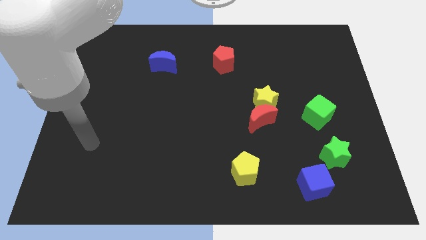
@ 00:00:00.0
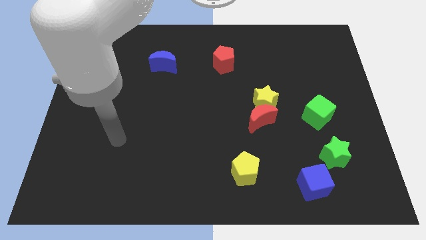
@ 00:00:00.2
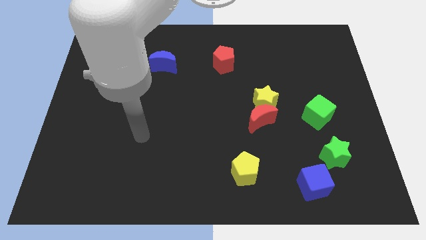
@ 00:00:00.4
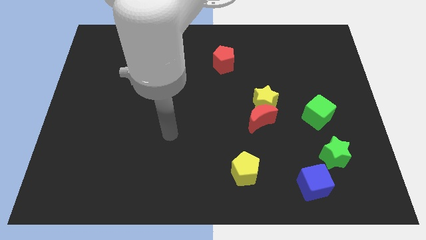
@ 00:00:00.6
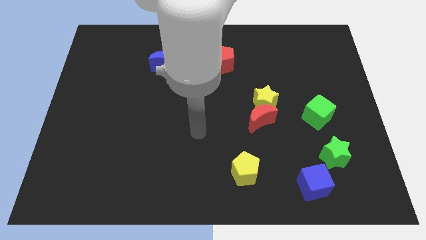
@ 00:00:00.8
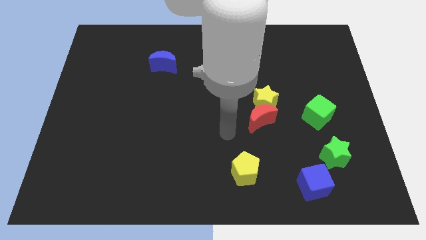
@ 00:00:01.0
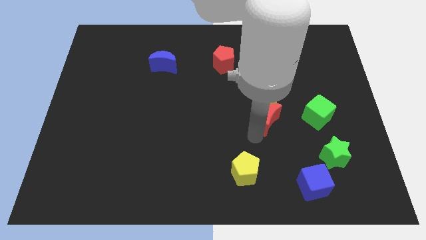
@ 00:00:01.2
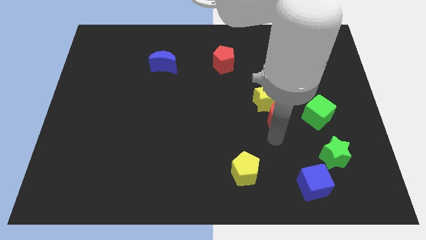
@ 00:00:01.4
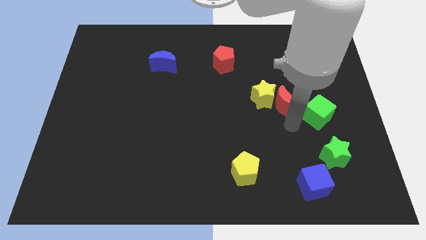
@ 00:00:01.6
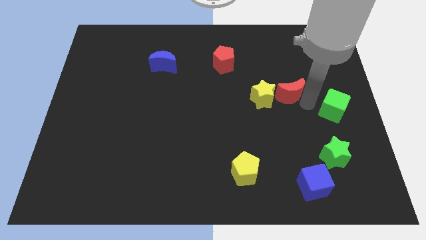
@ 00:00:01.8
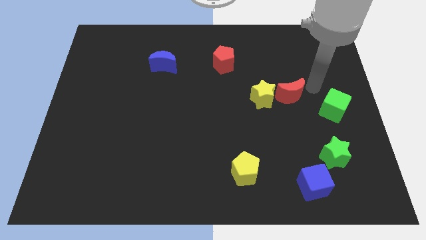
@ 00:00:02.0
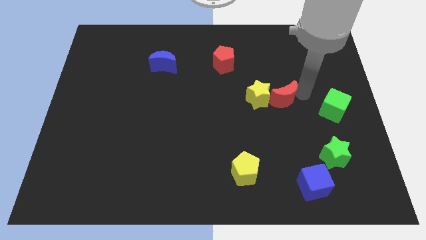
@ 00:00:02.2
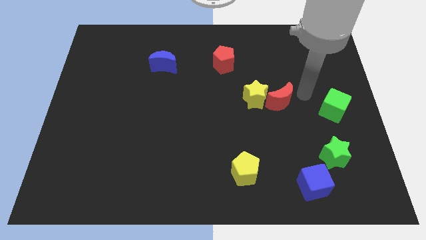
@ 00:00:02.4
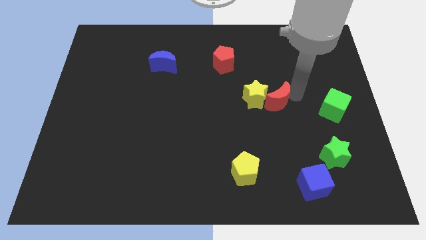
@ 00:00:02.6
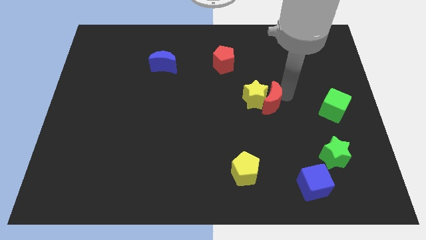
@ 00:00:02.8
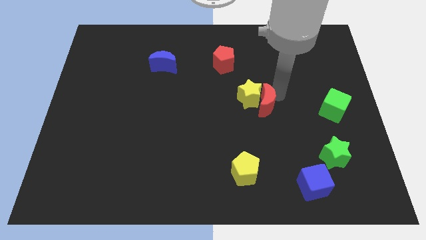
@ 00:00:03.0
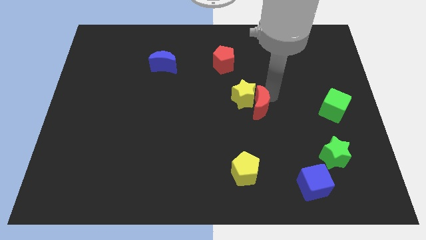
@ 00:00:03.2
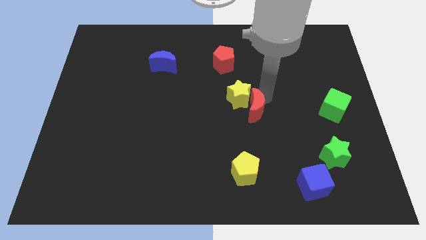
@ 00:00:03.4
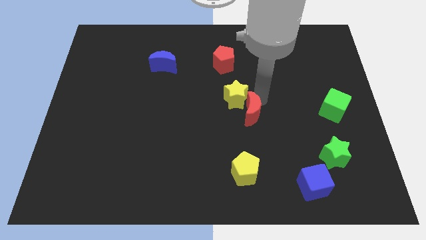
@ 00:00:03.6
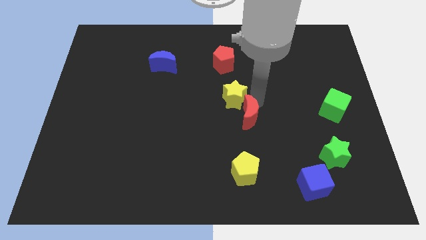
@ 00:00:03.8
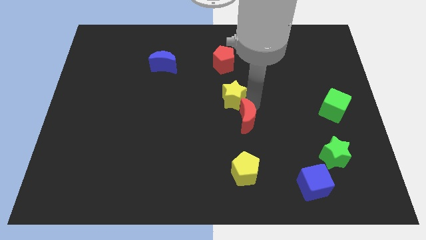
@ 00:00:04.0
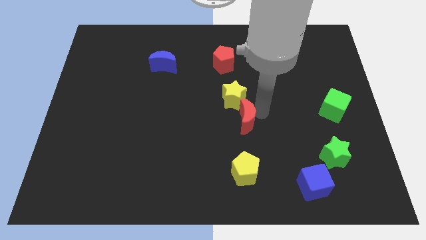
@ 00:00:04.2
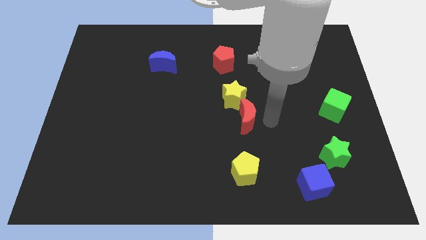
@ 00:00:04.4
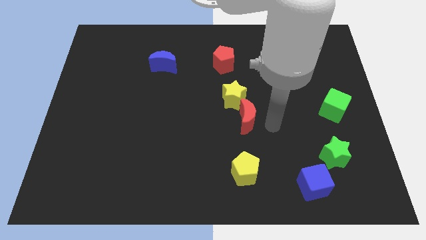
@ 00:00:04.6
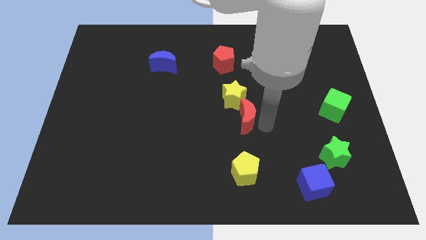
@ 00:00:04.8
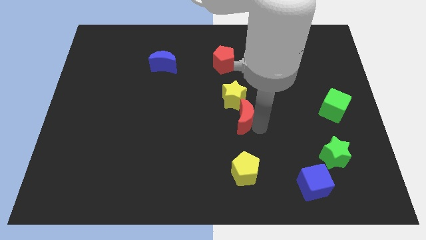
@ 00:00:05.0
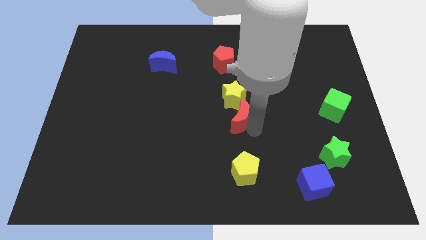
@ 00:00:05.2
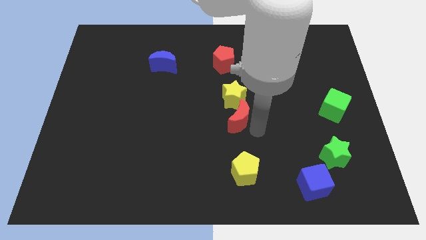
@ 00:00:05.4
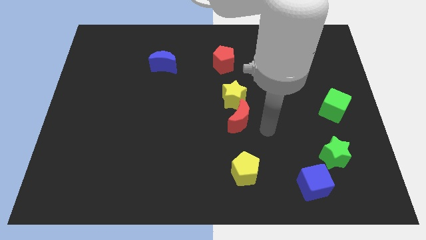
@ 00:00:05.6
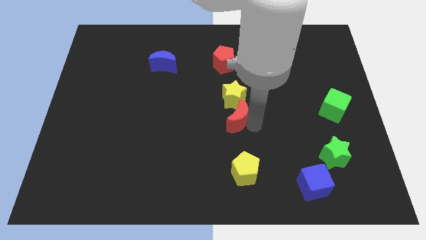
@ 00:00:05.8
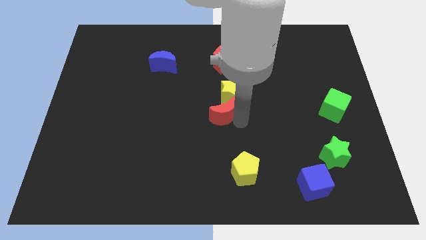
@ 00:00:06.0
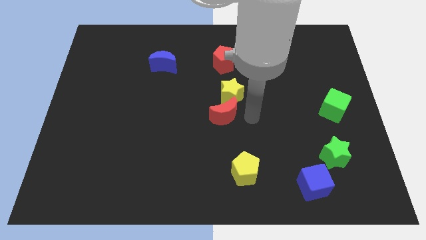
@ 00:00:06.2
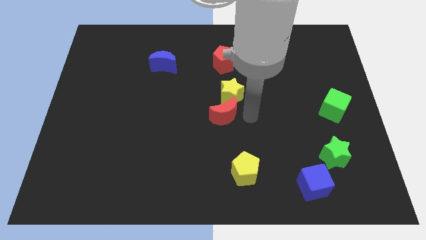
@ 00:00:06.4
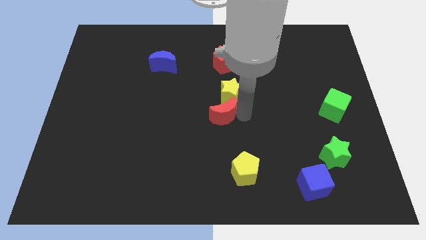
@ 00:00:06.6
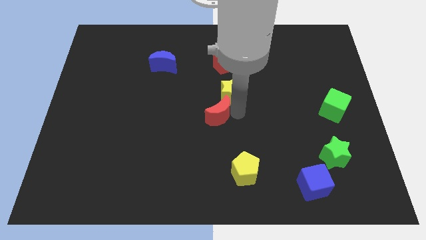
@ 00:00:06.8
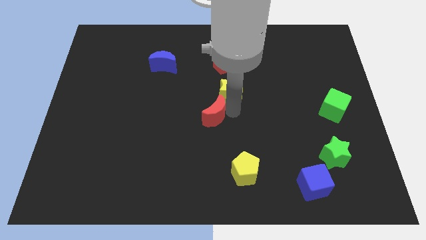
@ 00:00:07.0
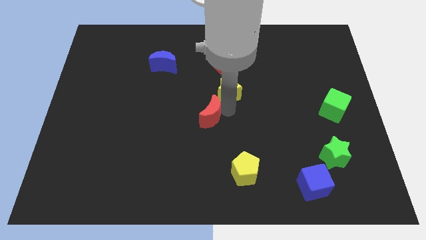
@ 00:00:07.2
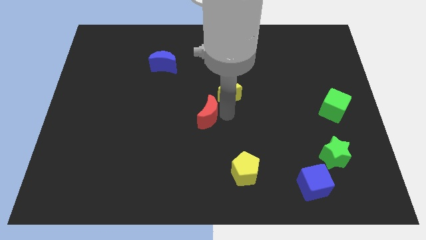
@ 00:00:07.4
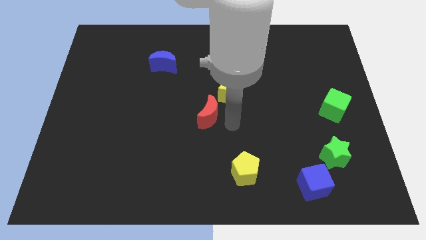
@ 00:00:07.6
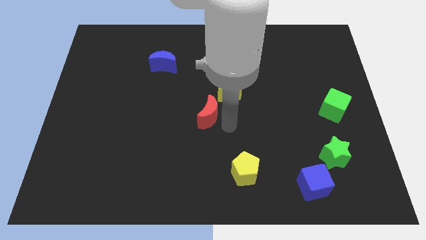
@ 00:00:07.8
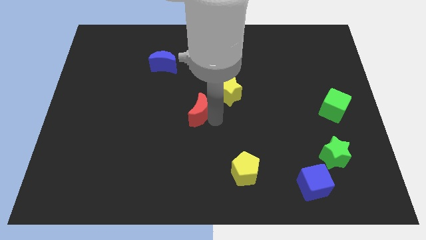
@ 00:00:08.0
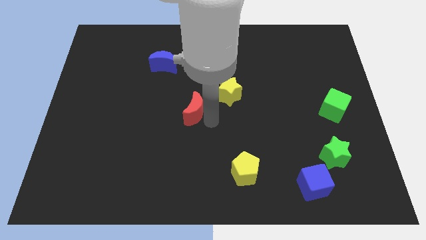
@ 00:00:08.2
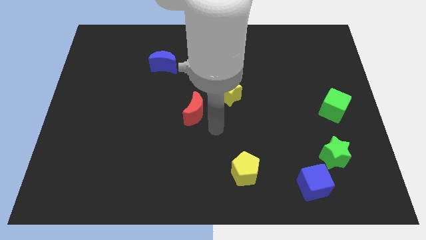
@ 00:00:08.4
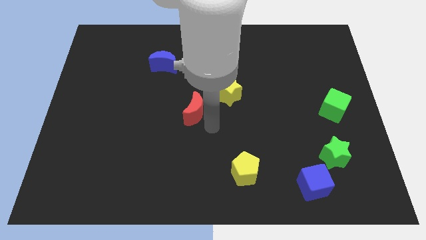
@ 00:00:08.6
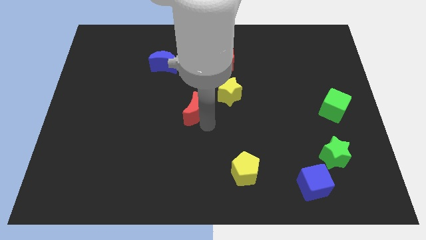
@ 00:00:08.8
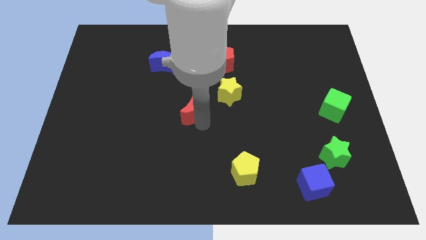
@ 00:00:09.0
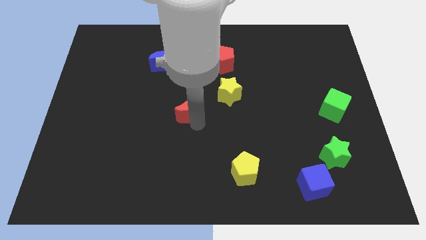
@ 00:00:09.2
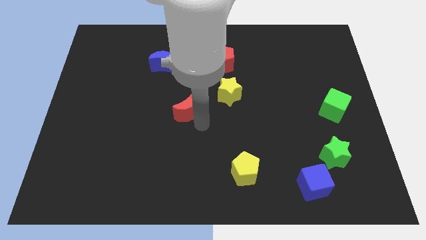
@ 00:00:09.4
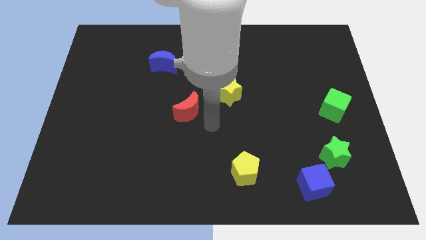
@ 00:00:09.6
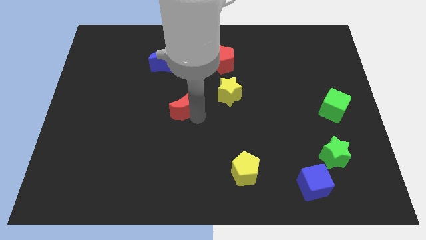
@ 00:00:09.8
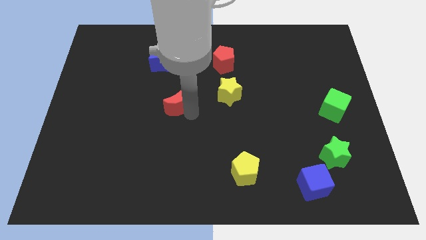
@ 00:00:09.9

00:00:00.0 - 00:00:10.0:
move the red moon to the bottom of the blue moon

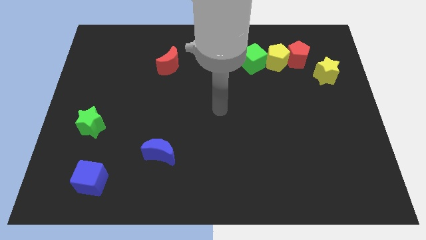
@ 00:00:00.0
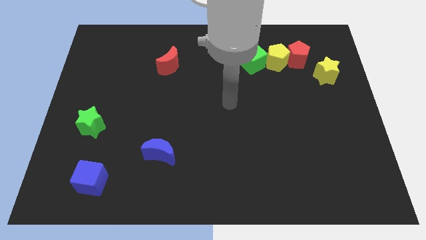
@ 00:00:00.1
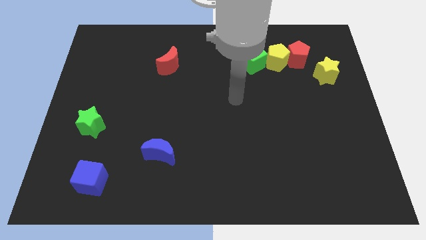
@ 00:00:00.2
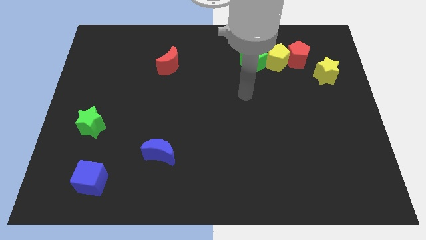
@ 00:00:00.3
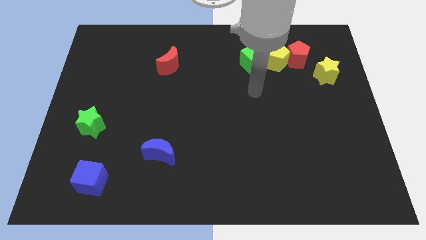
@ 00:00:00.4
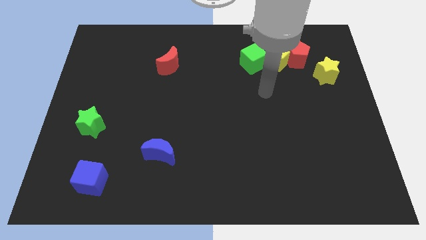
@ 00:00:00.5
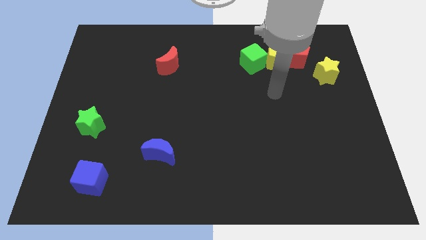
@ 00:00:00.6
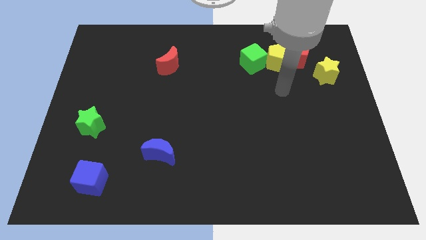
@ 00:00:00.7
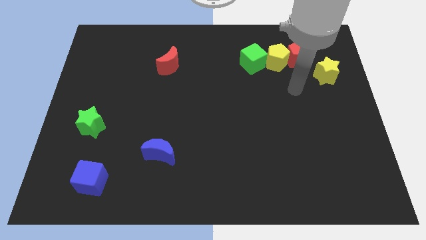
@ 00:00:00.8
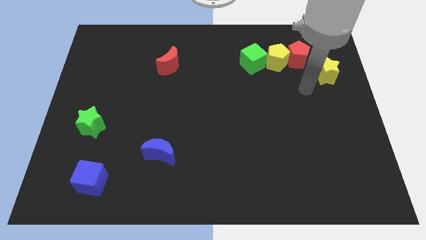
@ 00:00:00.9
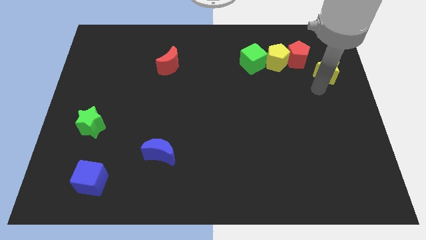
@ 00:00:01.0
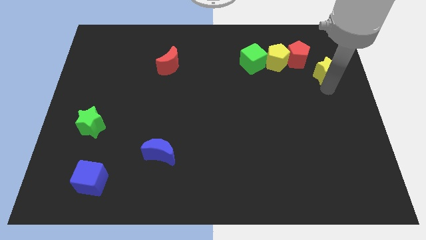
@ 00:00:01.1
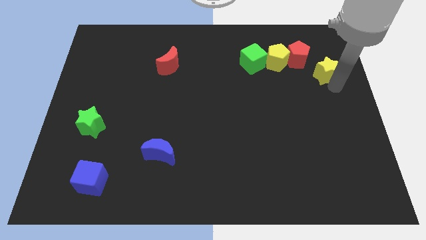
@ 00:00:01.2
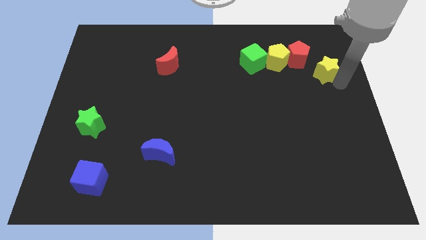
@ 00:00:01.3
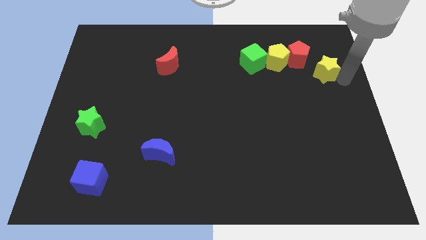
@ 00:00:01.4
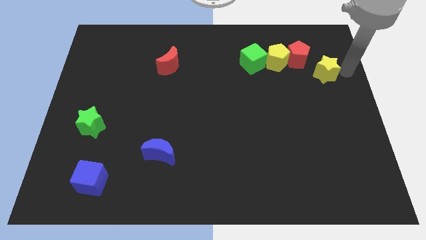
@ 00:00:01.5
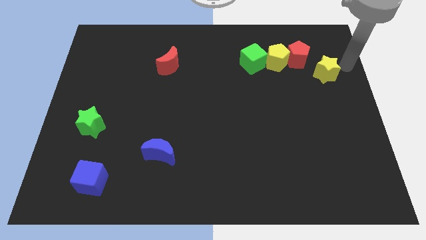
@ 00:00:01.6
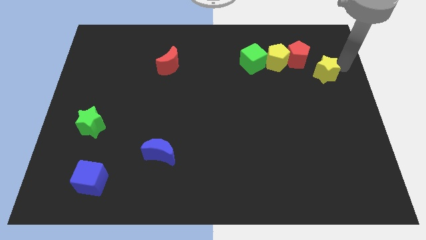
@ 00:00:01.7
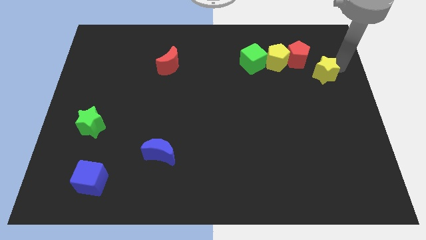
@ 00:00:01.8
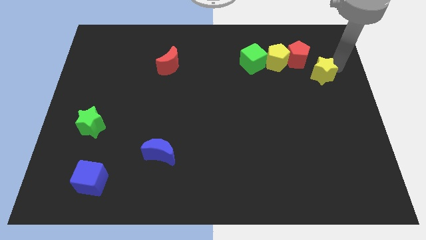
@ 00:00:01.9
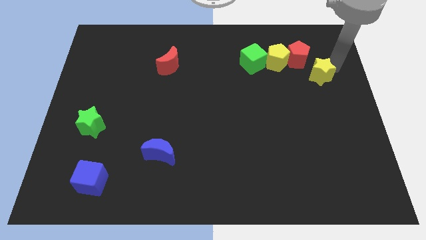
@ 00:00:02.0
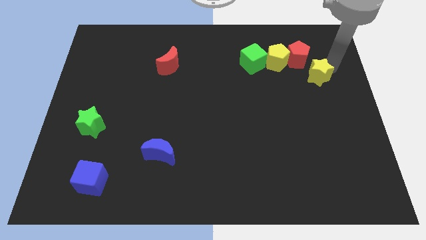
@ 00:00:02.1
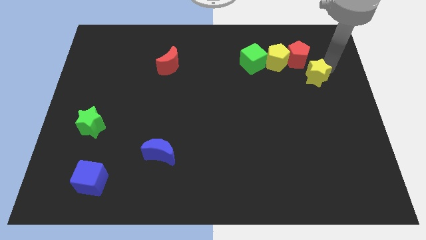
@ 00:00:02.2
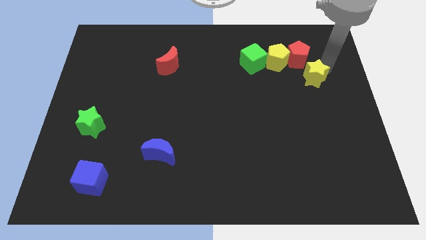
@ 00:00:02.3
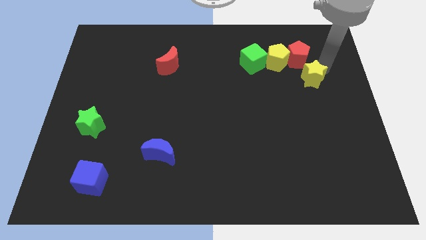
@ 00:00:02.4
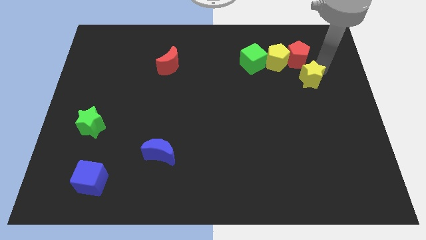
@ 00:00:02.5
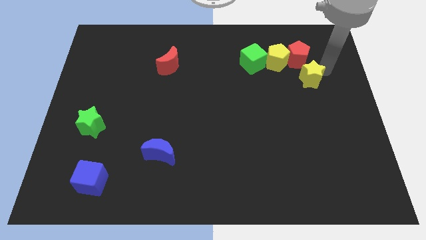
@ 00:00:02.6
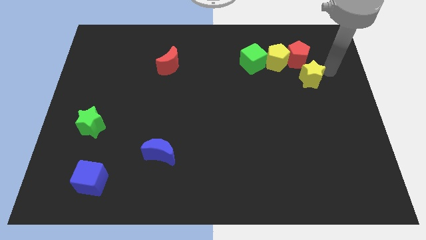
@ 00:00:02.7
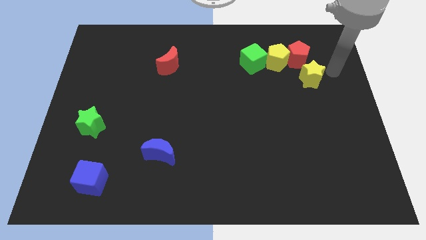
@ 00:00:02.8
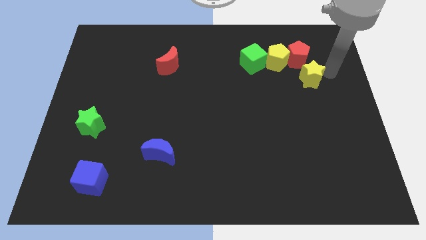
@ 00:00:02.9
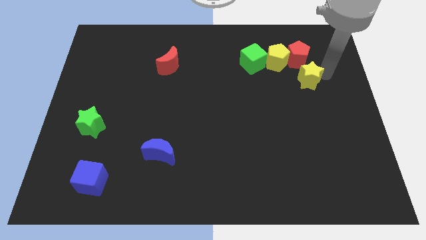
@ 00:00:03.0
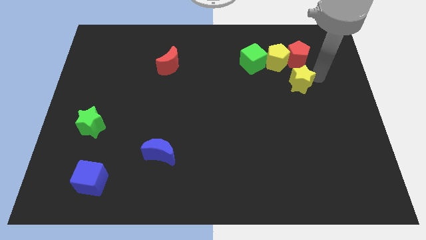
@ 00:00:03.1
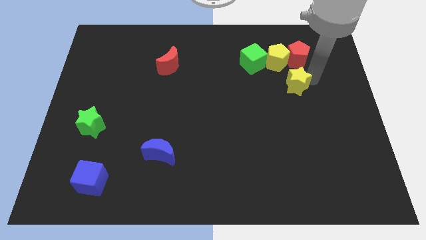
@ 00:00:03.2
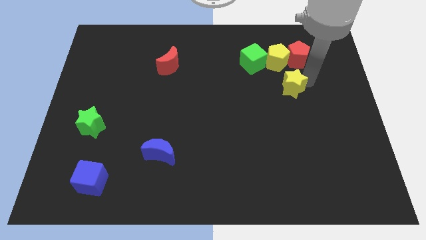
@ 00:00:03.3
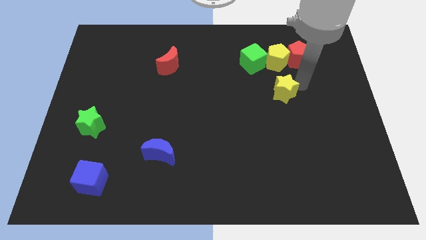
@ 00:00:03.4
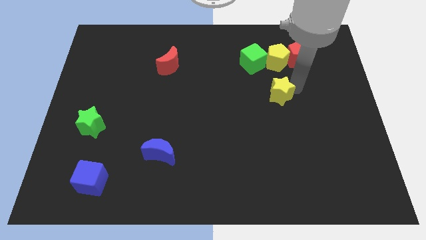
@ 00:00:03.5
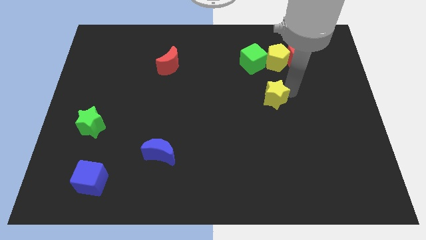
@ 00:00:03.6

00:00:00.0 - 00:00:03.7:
put the yellow star to the bottom of the green cube
